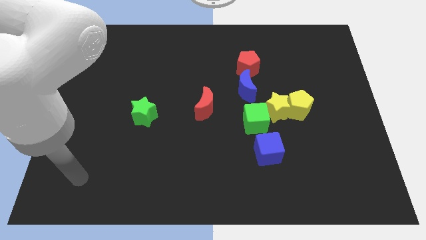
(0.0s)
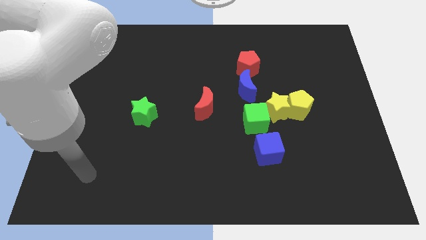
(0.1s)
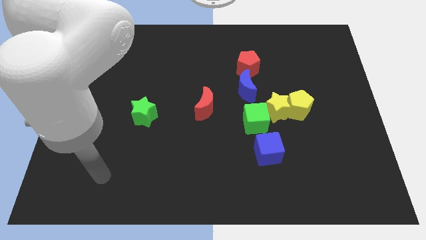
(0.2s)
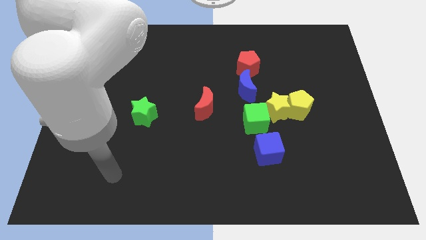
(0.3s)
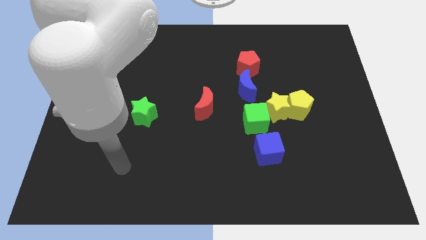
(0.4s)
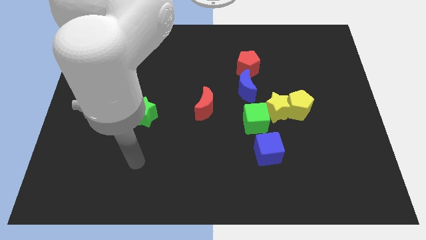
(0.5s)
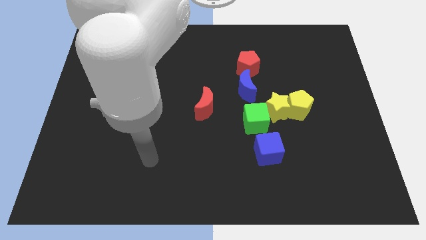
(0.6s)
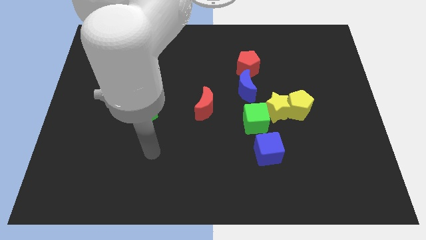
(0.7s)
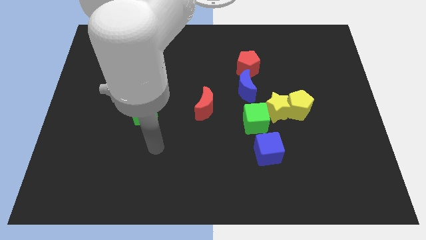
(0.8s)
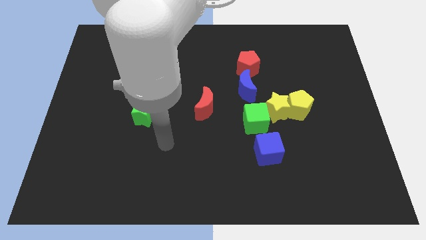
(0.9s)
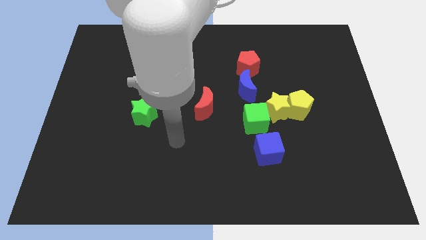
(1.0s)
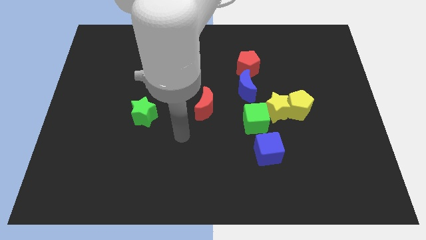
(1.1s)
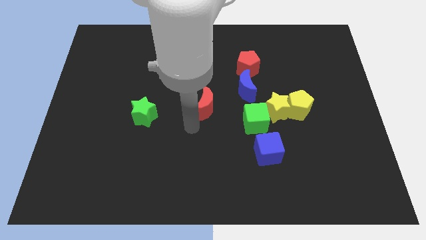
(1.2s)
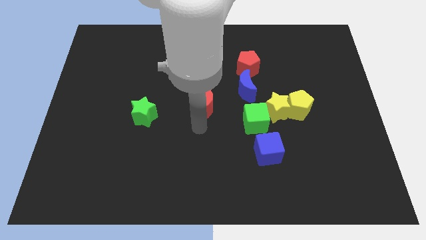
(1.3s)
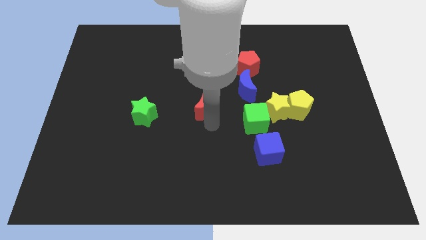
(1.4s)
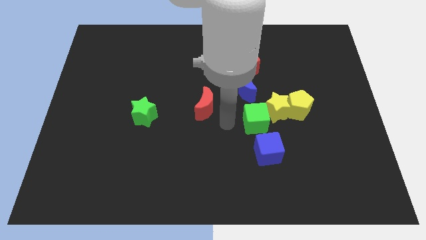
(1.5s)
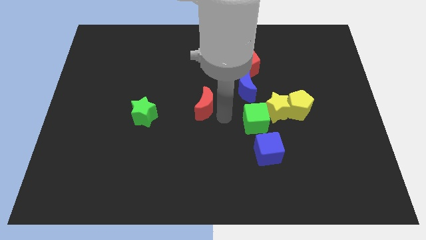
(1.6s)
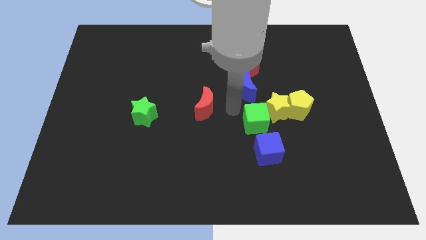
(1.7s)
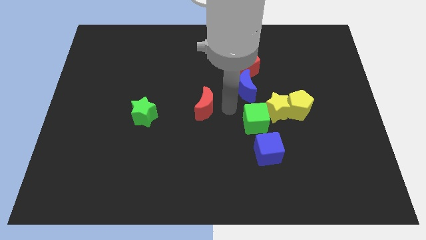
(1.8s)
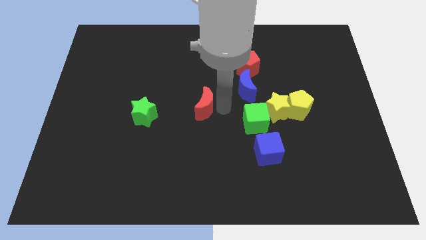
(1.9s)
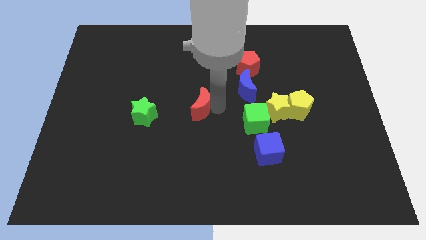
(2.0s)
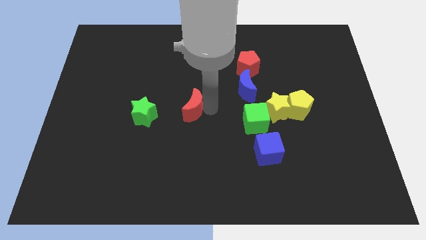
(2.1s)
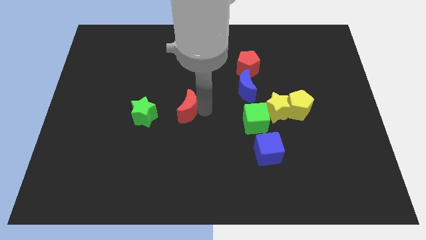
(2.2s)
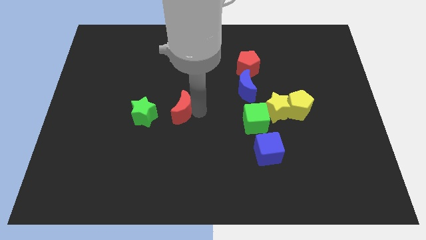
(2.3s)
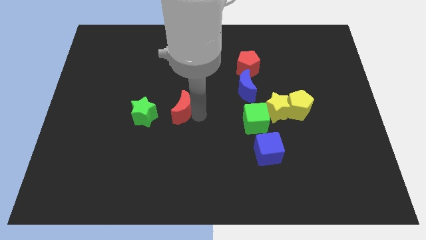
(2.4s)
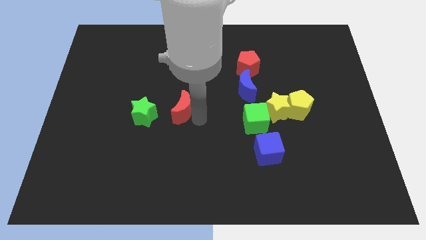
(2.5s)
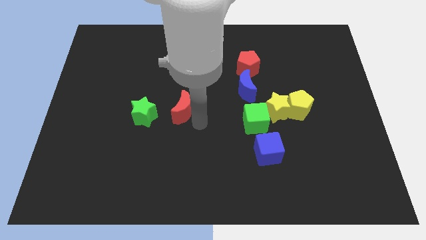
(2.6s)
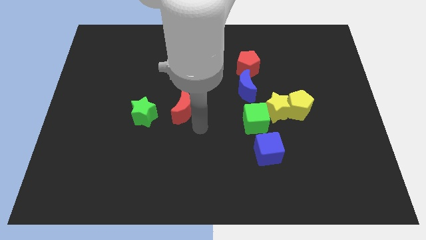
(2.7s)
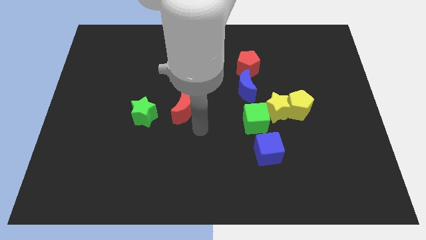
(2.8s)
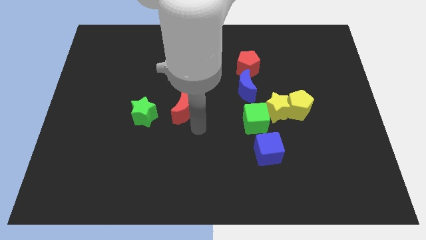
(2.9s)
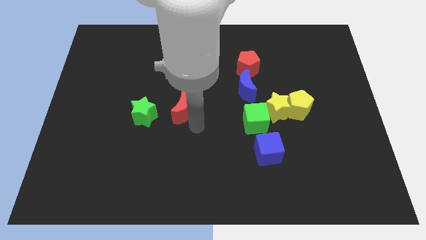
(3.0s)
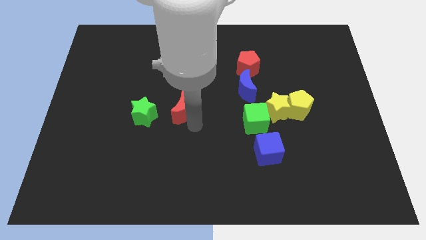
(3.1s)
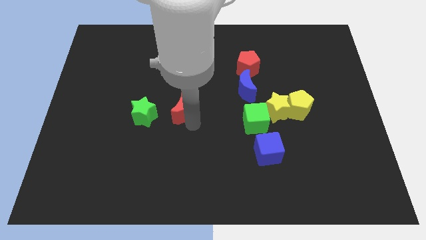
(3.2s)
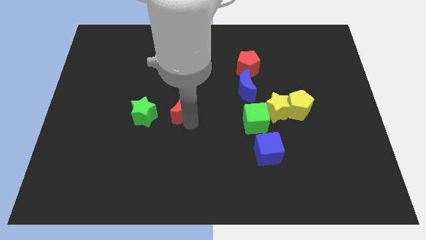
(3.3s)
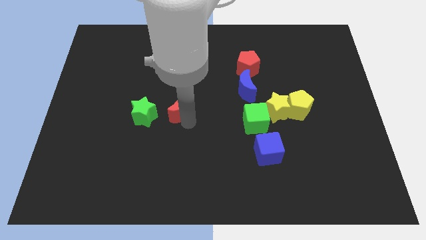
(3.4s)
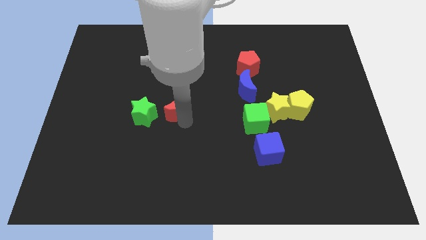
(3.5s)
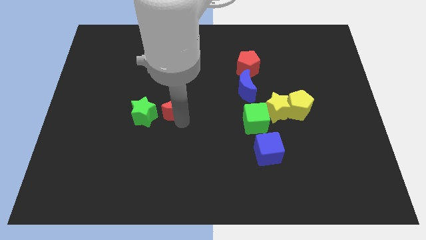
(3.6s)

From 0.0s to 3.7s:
slightly slide the red moon to the left

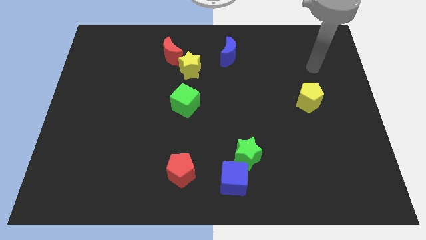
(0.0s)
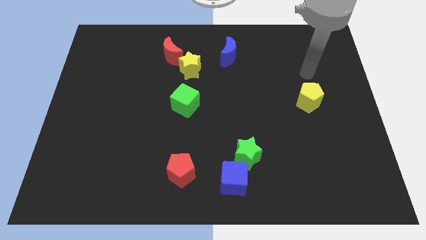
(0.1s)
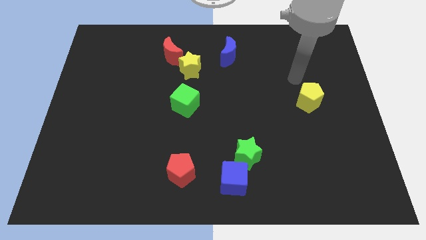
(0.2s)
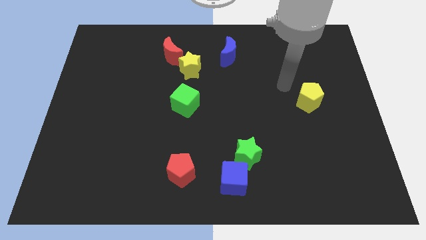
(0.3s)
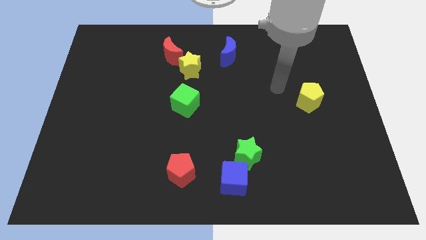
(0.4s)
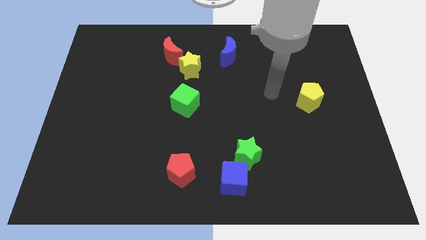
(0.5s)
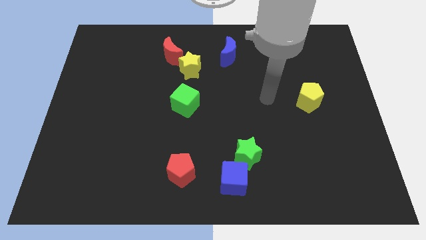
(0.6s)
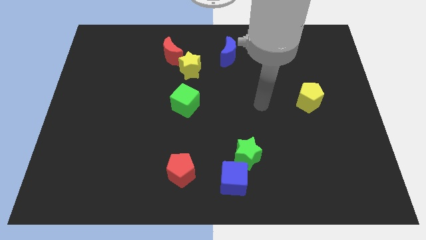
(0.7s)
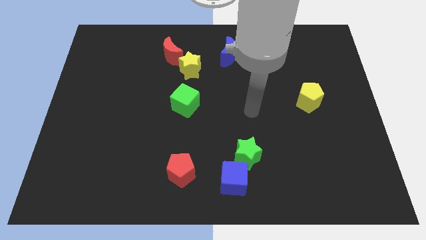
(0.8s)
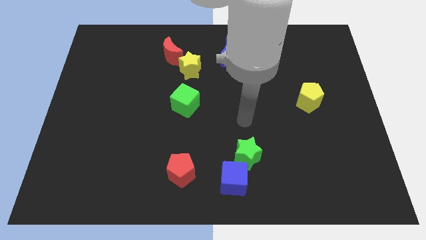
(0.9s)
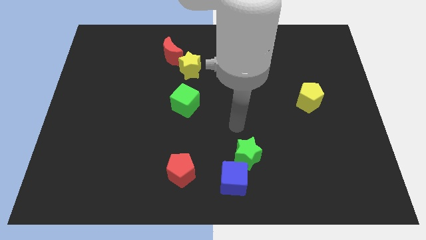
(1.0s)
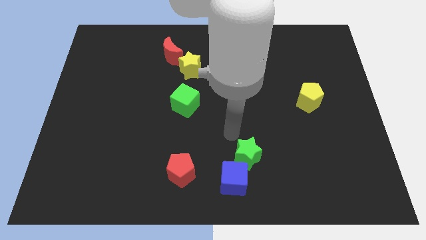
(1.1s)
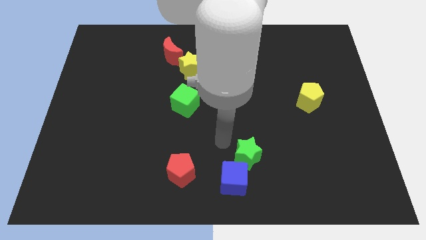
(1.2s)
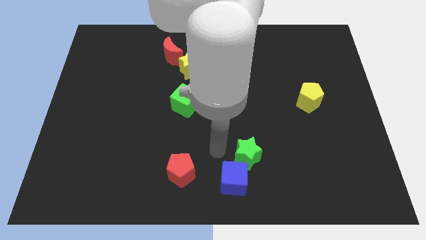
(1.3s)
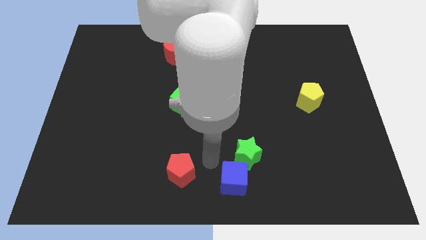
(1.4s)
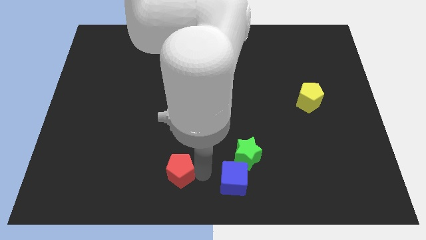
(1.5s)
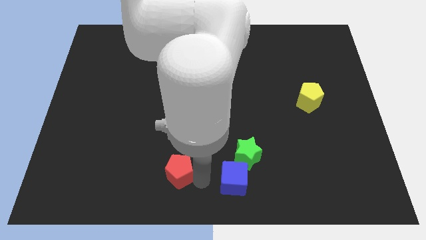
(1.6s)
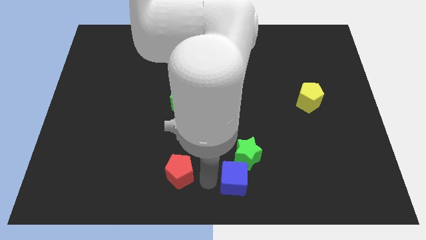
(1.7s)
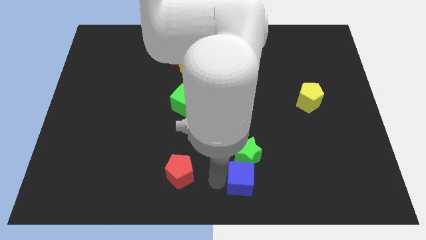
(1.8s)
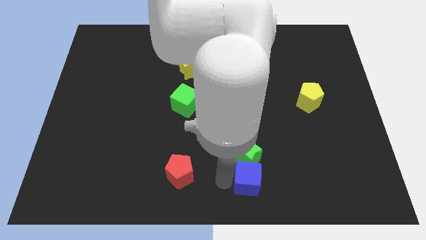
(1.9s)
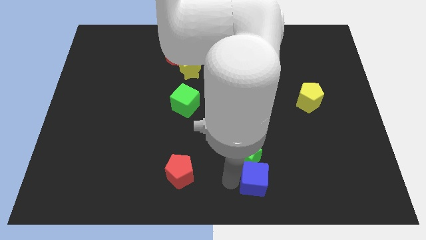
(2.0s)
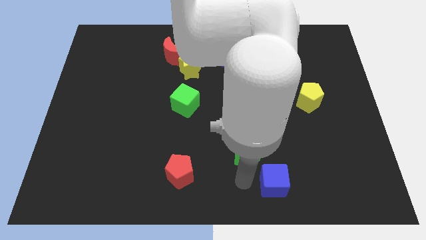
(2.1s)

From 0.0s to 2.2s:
slide the blue cube to the right a little bit

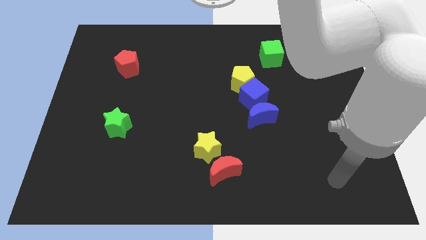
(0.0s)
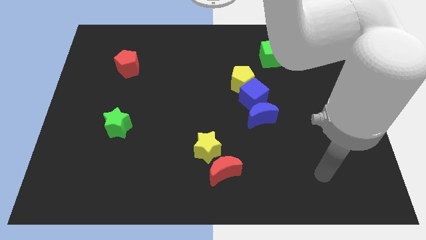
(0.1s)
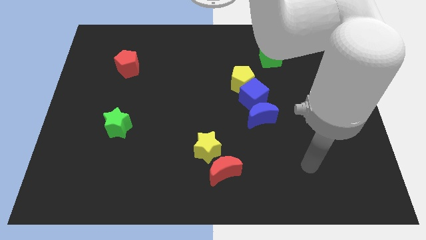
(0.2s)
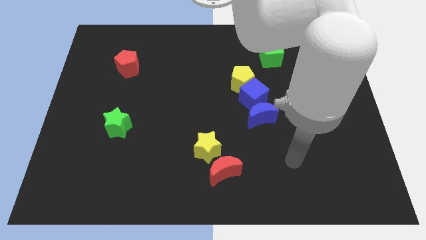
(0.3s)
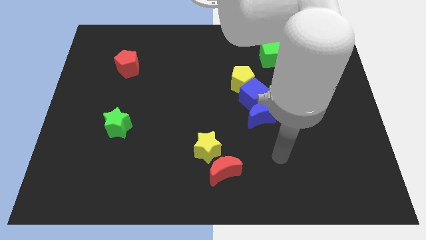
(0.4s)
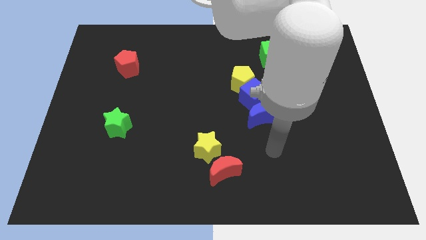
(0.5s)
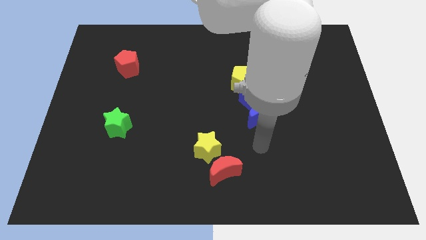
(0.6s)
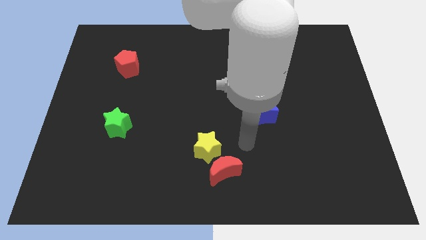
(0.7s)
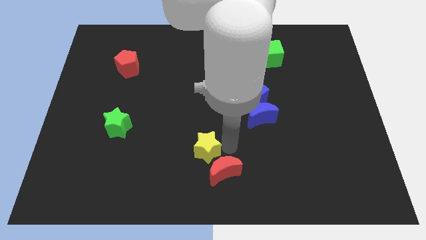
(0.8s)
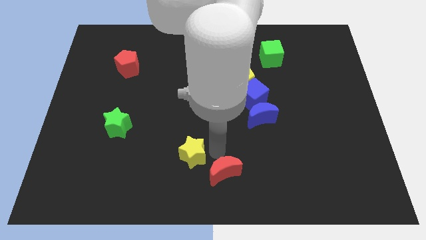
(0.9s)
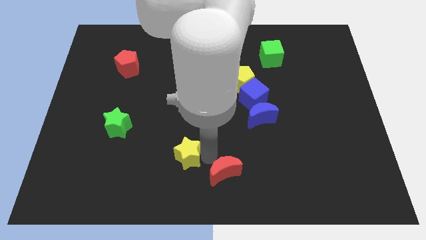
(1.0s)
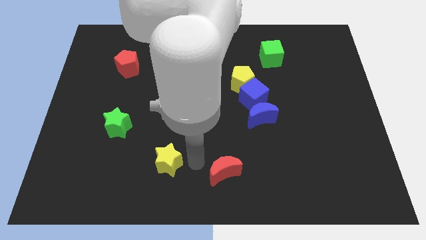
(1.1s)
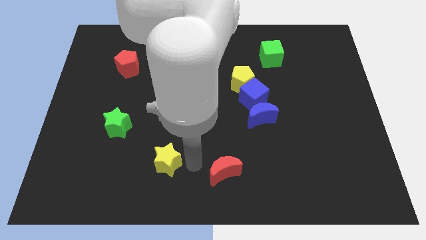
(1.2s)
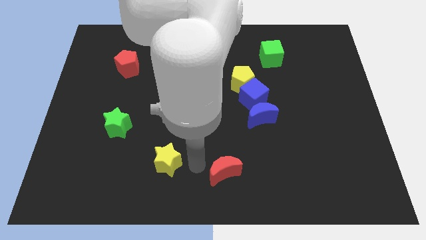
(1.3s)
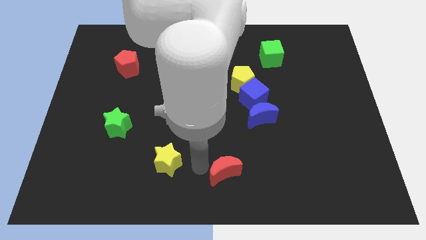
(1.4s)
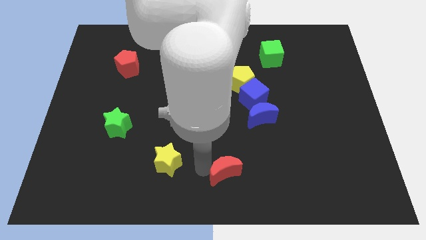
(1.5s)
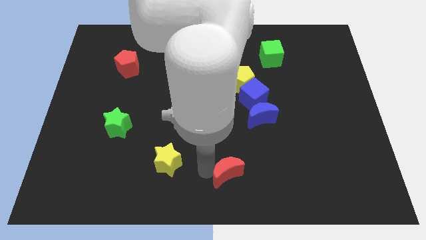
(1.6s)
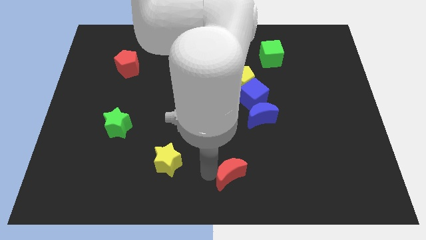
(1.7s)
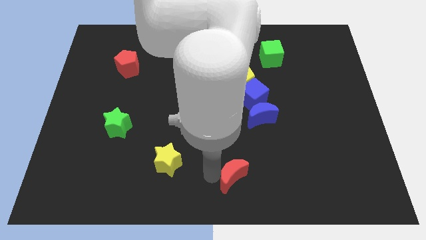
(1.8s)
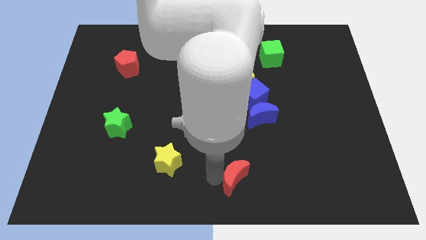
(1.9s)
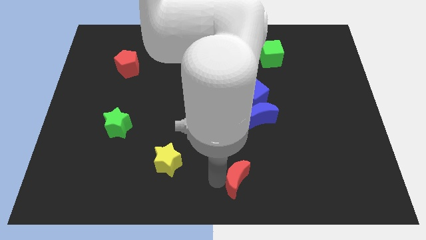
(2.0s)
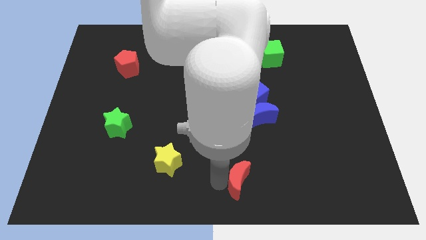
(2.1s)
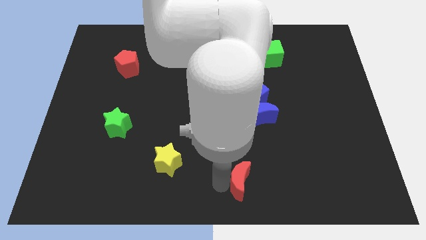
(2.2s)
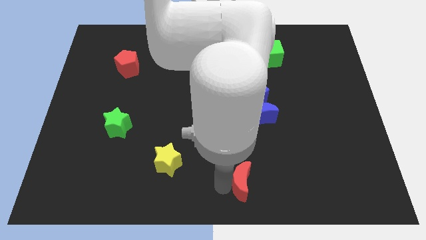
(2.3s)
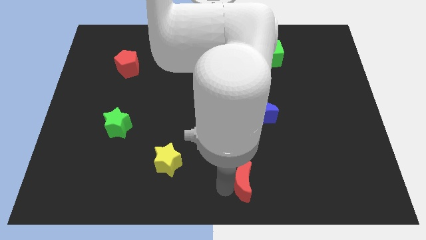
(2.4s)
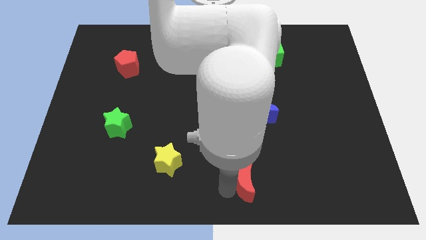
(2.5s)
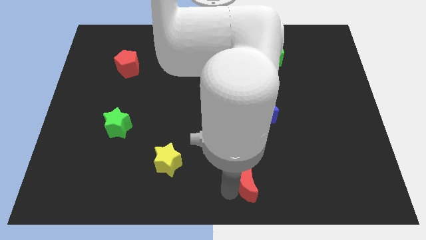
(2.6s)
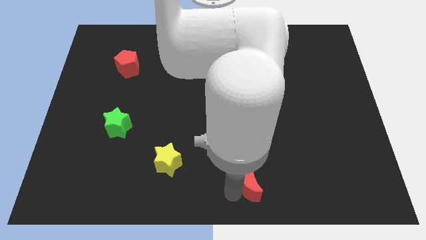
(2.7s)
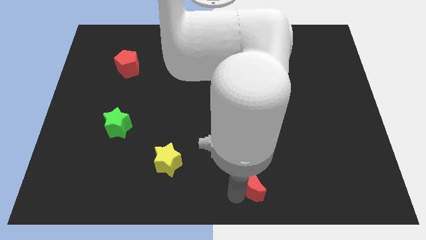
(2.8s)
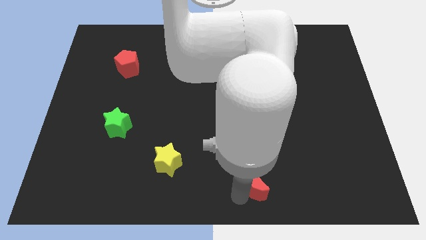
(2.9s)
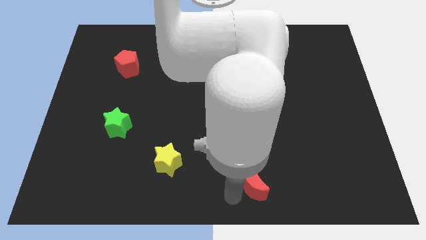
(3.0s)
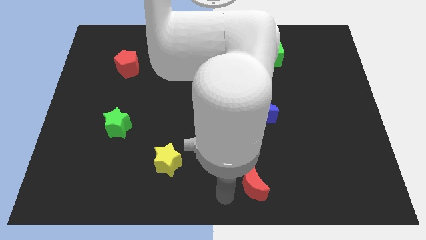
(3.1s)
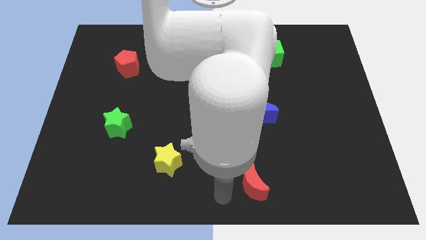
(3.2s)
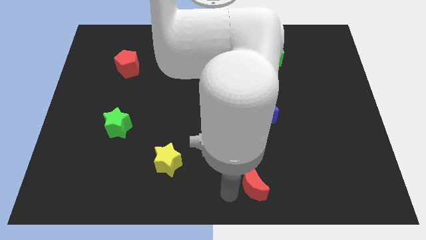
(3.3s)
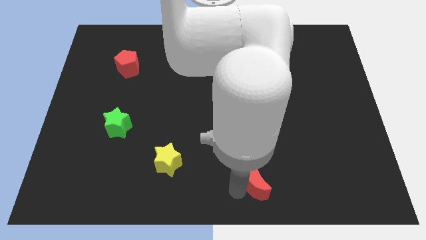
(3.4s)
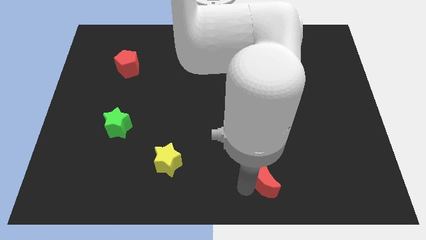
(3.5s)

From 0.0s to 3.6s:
slide the red moon right a little
